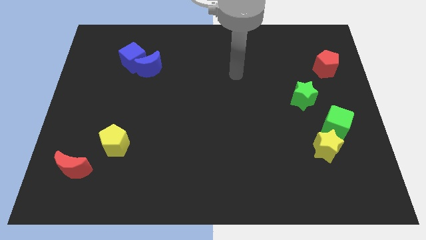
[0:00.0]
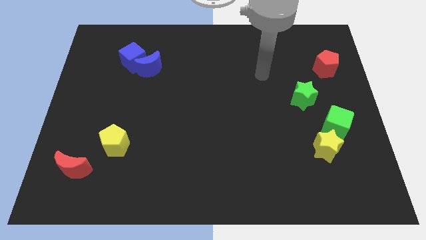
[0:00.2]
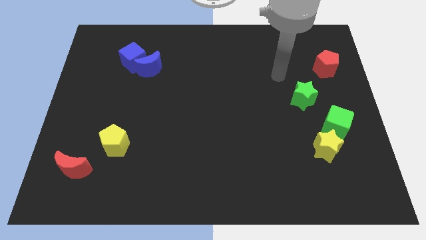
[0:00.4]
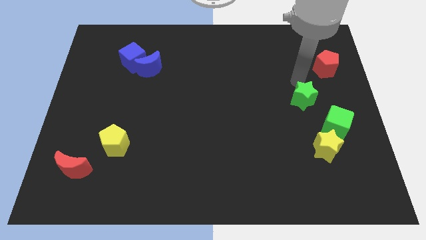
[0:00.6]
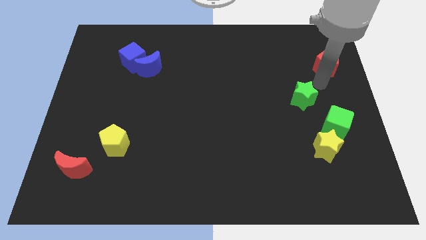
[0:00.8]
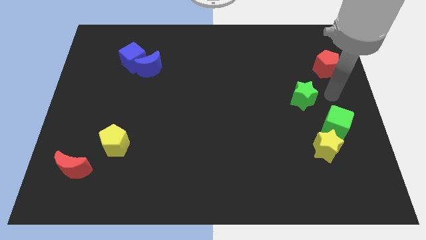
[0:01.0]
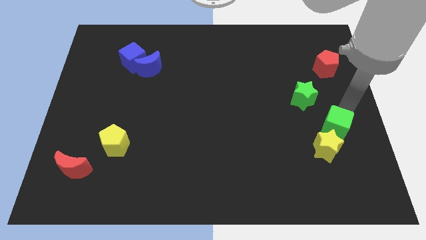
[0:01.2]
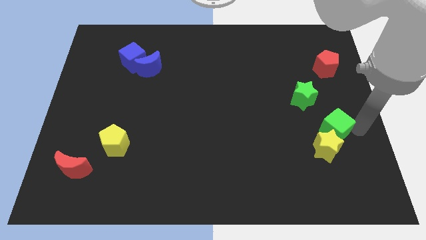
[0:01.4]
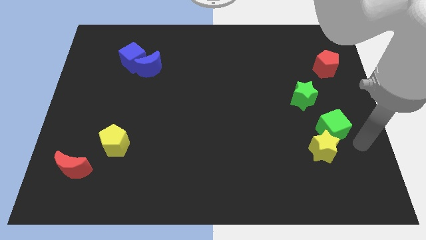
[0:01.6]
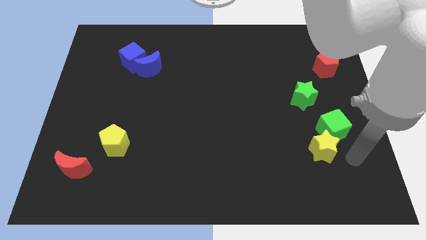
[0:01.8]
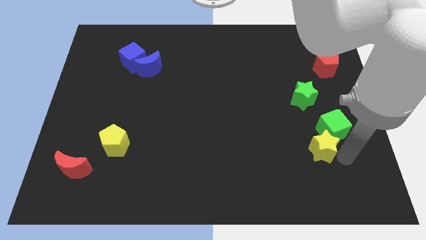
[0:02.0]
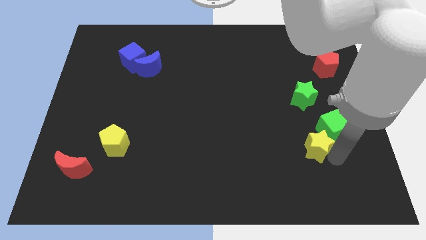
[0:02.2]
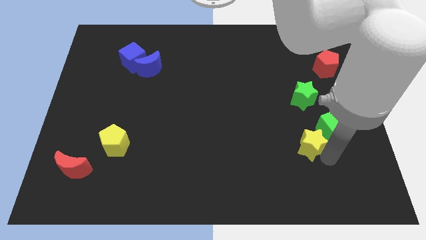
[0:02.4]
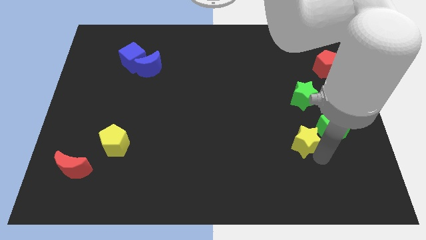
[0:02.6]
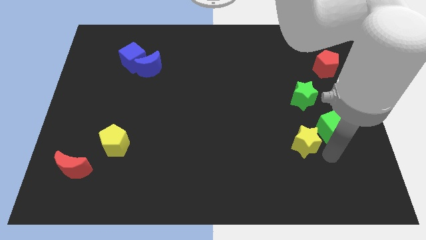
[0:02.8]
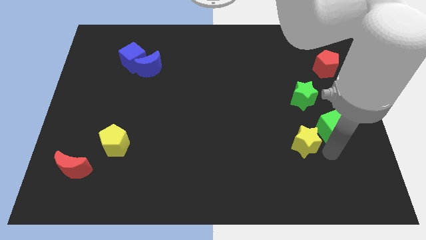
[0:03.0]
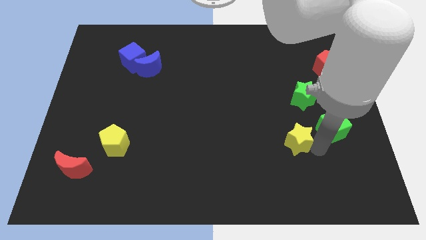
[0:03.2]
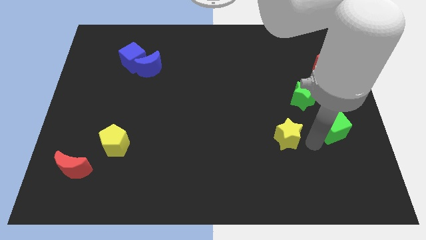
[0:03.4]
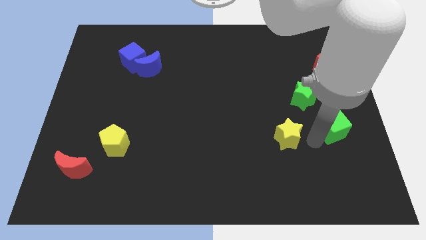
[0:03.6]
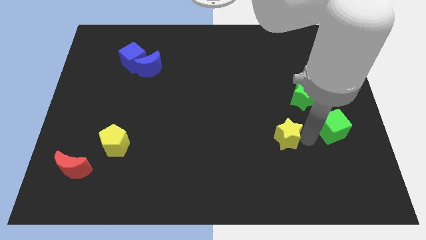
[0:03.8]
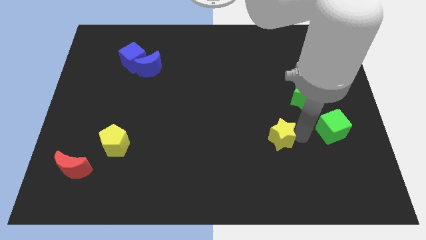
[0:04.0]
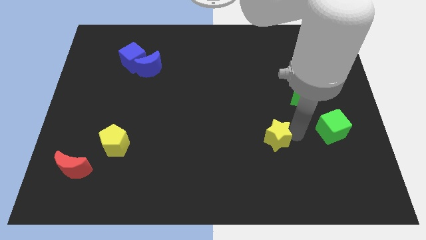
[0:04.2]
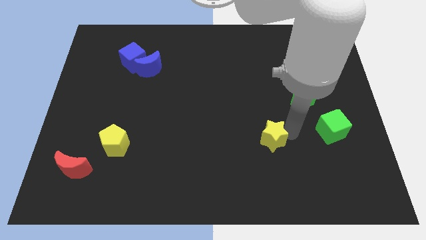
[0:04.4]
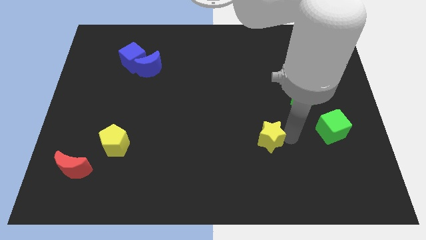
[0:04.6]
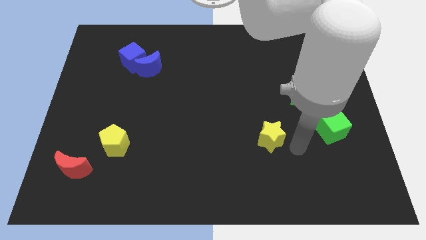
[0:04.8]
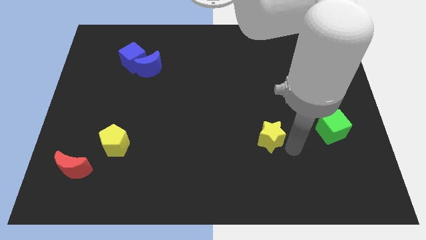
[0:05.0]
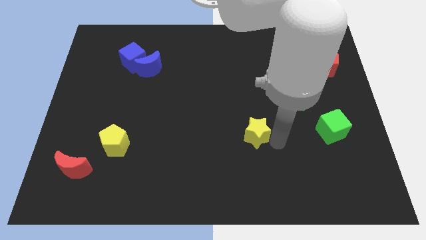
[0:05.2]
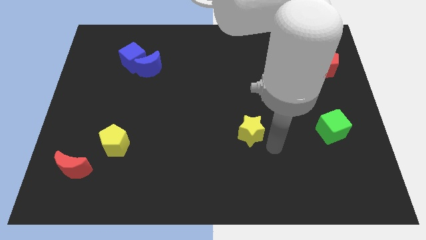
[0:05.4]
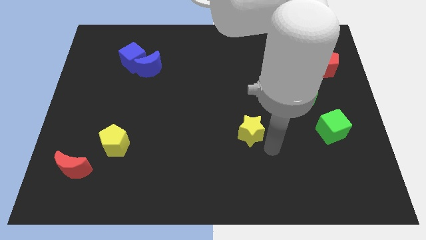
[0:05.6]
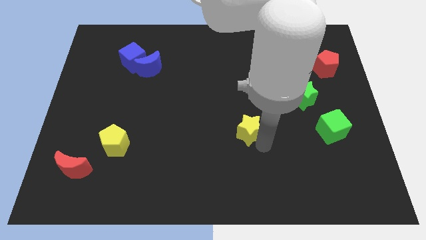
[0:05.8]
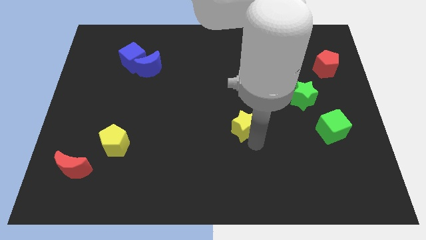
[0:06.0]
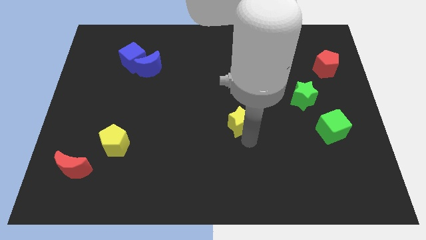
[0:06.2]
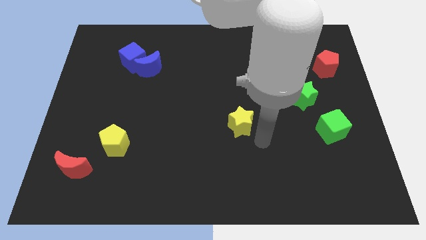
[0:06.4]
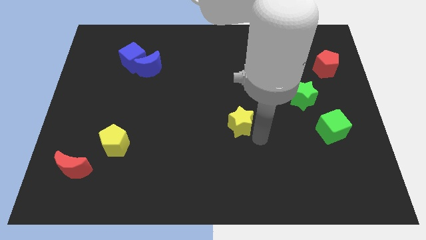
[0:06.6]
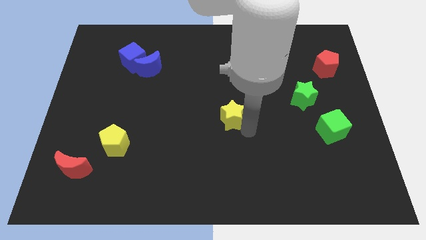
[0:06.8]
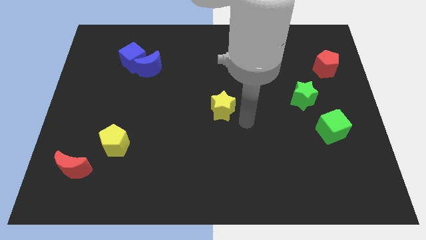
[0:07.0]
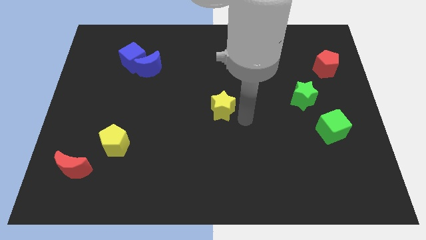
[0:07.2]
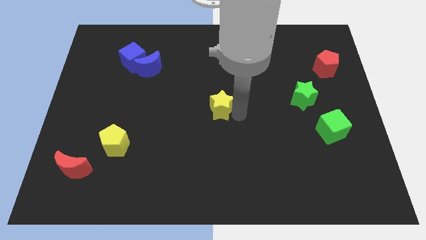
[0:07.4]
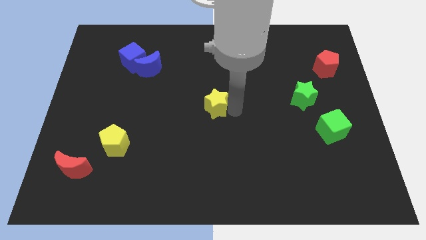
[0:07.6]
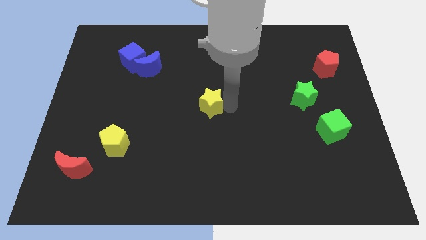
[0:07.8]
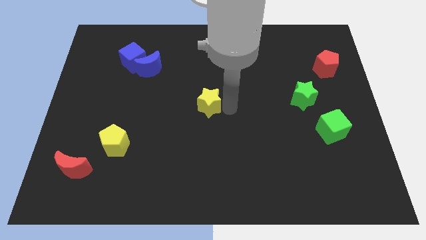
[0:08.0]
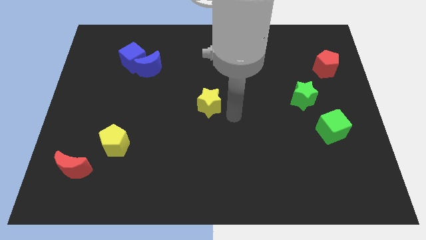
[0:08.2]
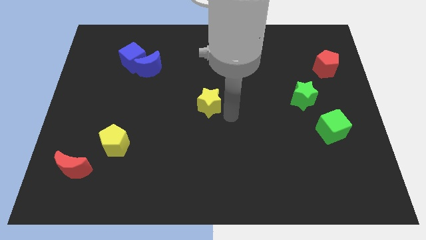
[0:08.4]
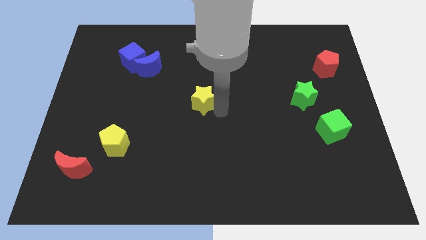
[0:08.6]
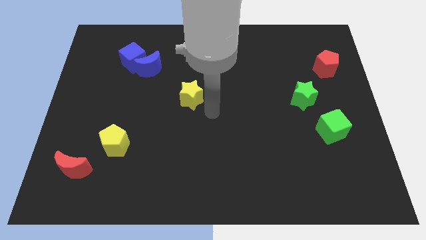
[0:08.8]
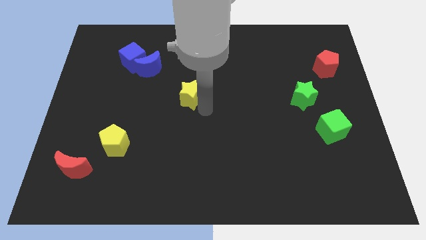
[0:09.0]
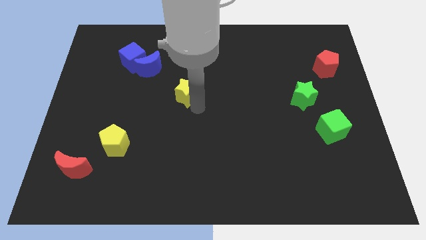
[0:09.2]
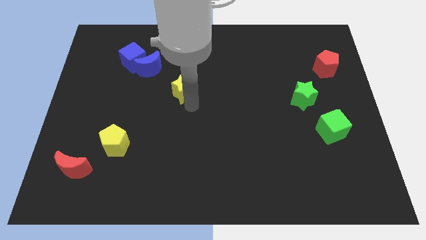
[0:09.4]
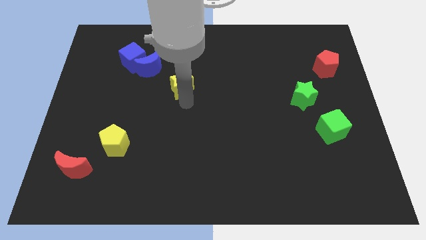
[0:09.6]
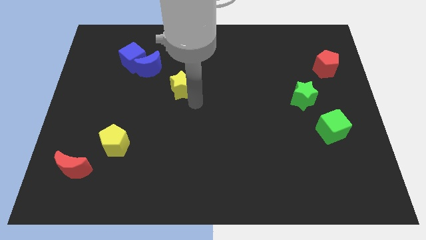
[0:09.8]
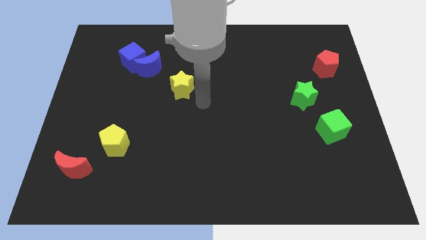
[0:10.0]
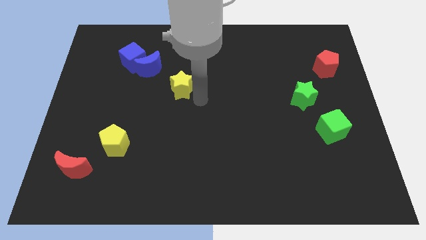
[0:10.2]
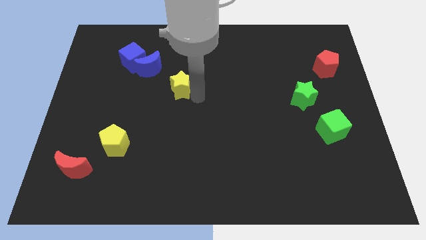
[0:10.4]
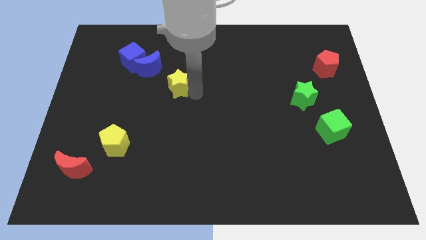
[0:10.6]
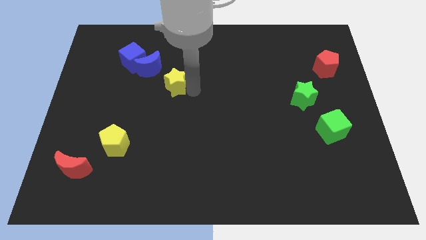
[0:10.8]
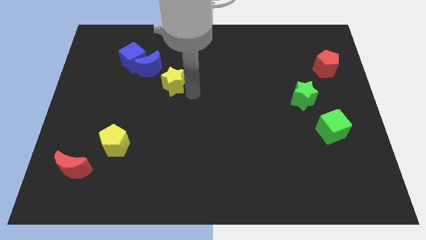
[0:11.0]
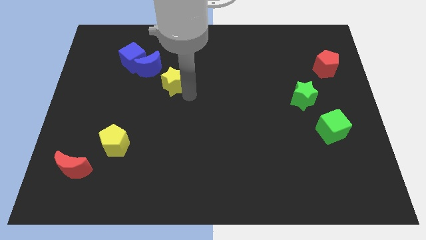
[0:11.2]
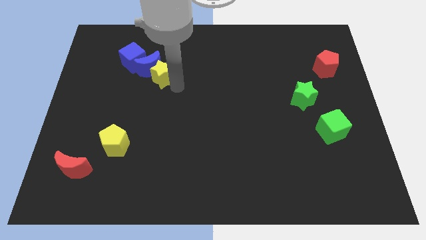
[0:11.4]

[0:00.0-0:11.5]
put the yellow star towards the blue moon

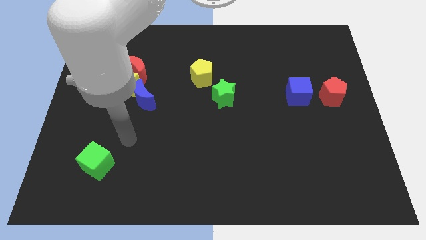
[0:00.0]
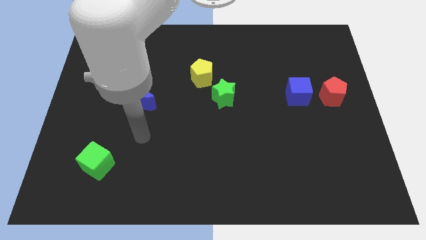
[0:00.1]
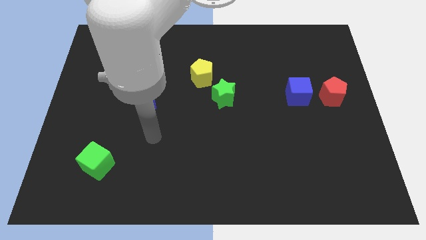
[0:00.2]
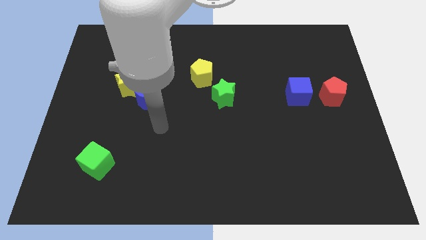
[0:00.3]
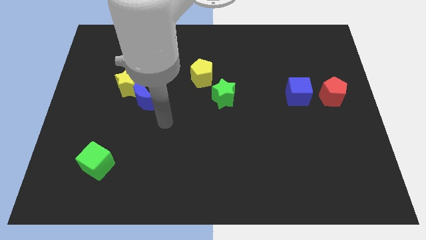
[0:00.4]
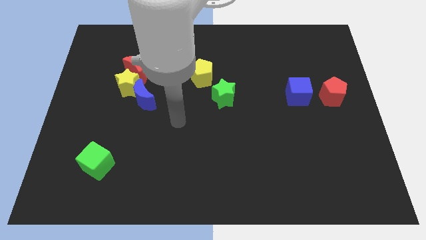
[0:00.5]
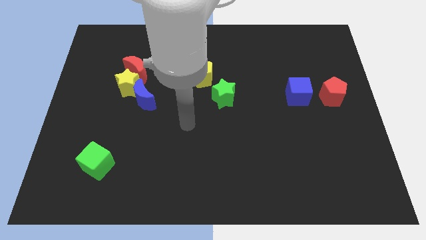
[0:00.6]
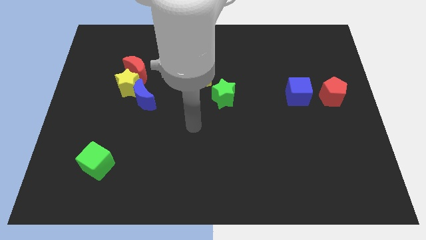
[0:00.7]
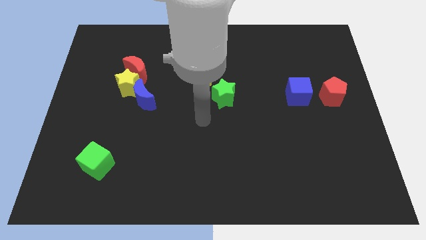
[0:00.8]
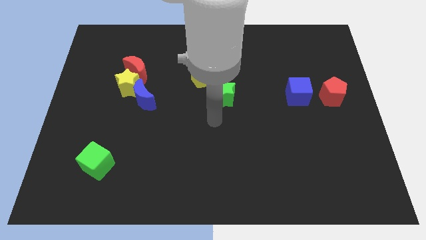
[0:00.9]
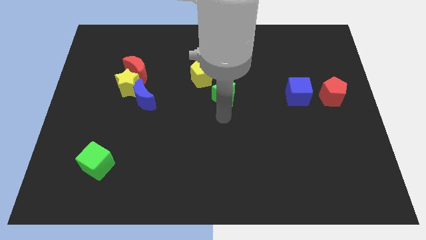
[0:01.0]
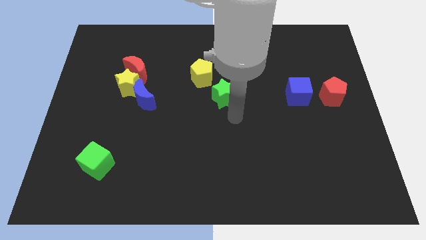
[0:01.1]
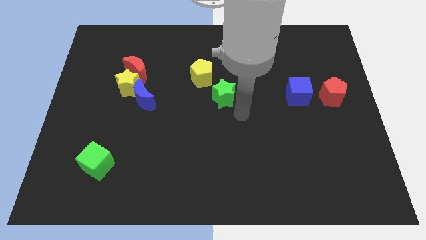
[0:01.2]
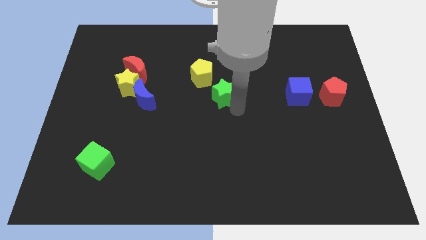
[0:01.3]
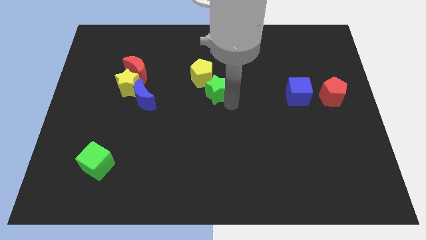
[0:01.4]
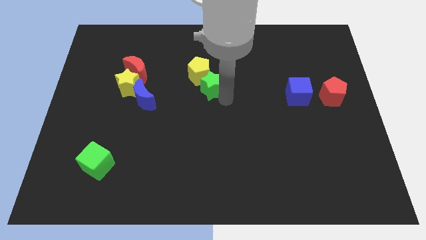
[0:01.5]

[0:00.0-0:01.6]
move the green star next to the yellow pentagon
